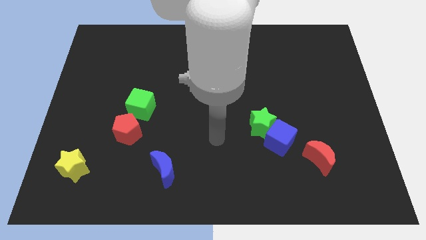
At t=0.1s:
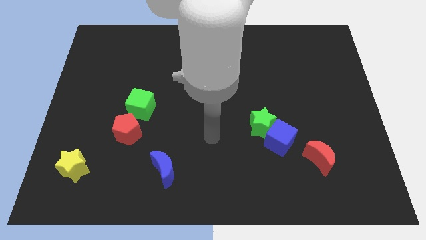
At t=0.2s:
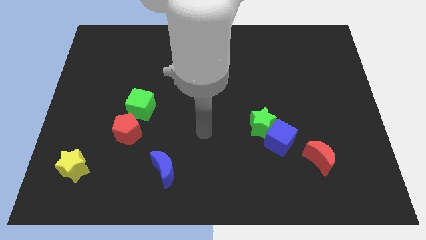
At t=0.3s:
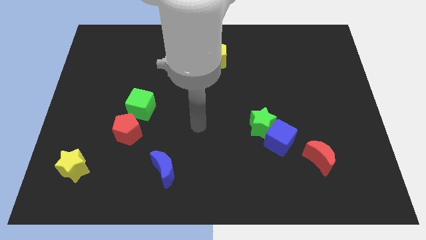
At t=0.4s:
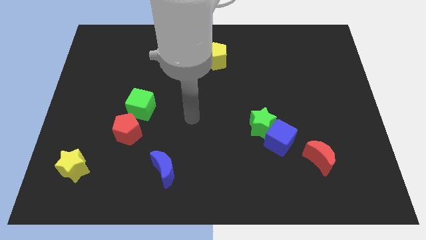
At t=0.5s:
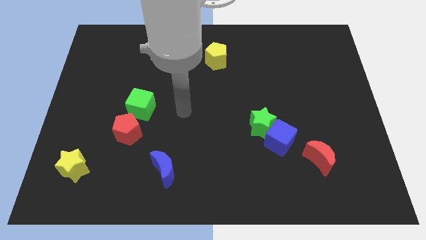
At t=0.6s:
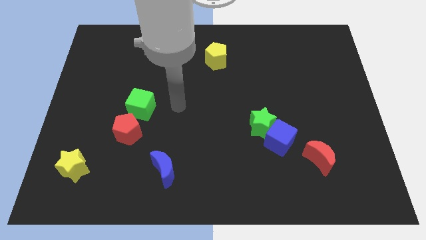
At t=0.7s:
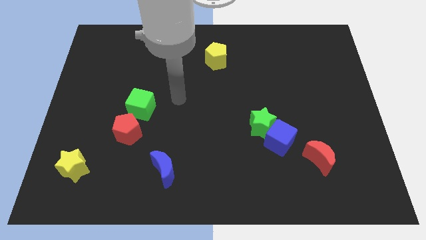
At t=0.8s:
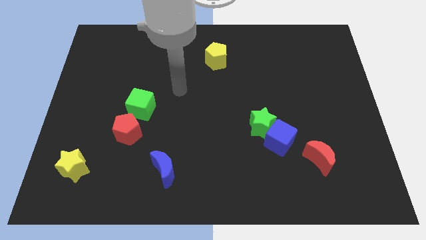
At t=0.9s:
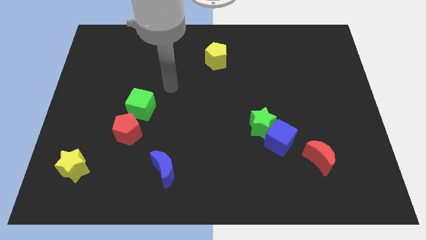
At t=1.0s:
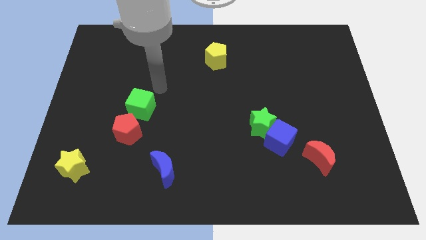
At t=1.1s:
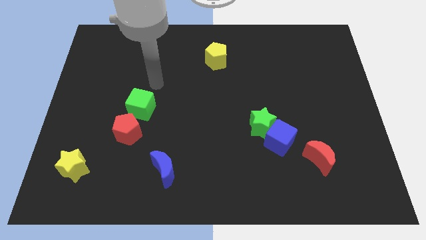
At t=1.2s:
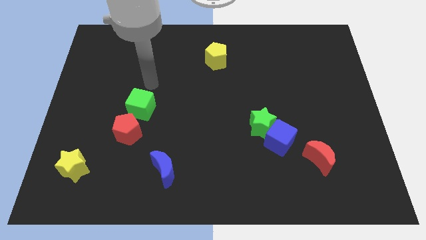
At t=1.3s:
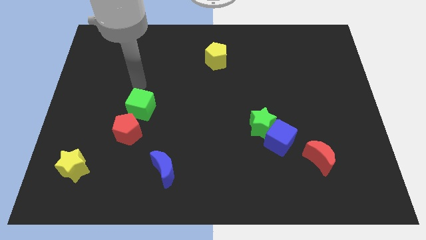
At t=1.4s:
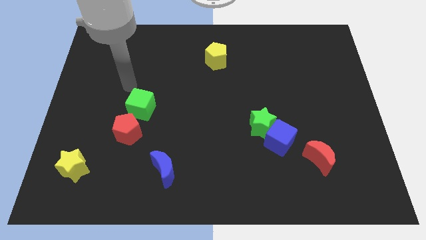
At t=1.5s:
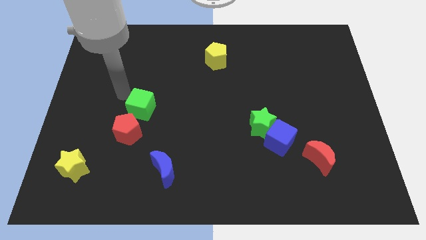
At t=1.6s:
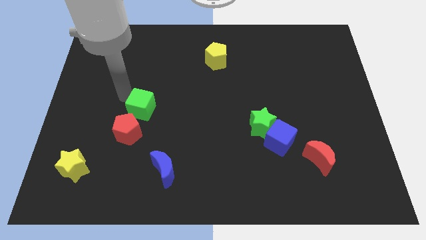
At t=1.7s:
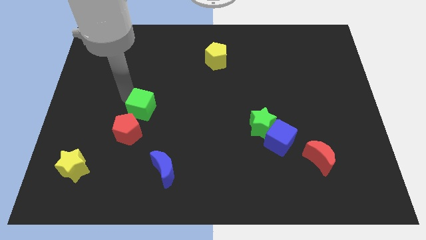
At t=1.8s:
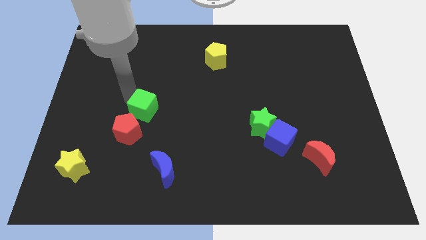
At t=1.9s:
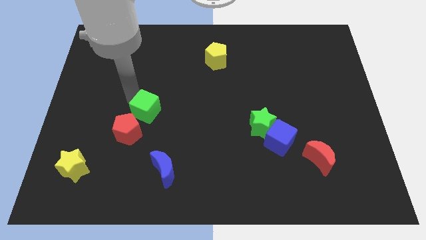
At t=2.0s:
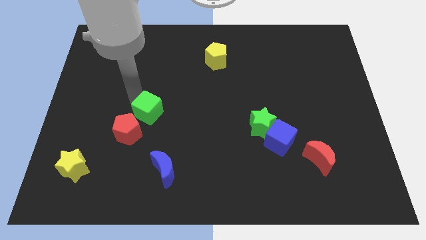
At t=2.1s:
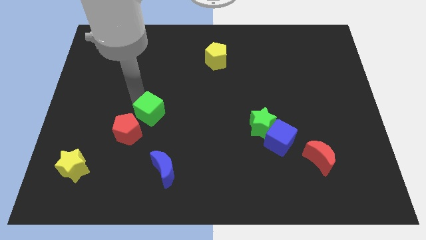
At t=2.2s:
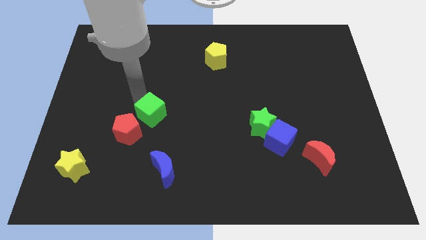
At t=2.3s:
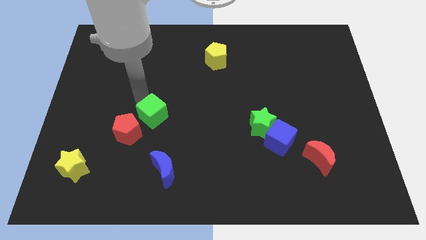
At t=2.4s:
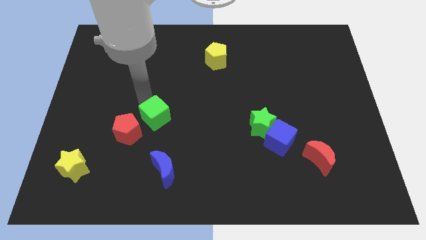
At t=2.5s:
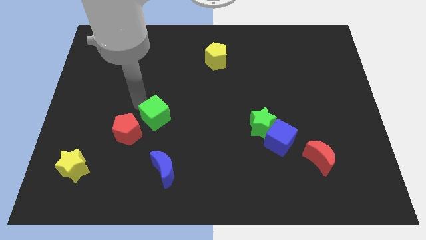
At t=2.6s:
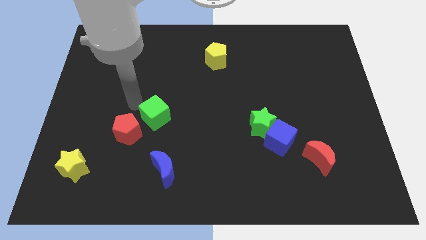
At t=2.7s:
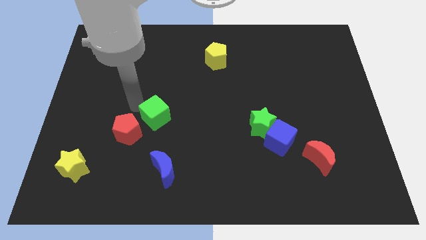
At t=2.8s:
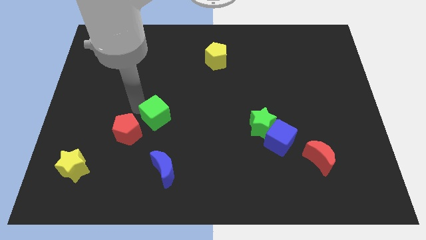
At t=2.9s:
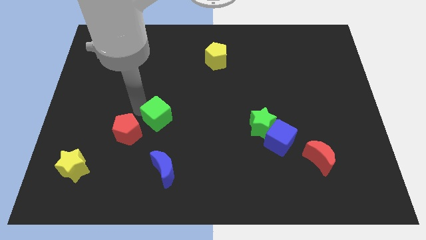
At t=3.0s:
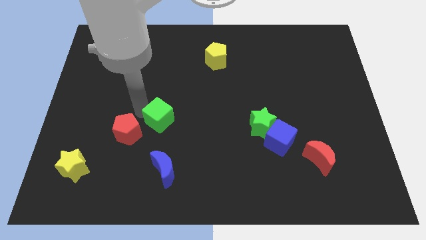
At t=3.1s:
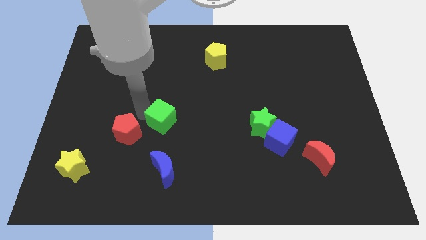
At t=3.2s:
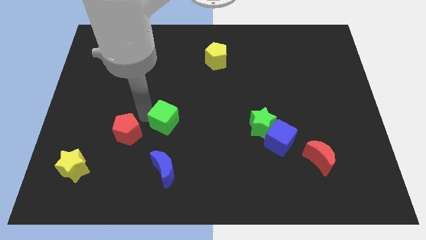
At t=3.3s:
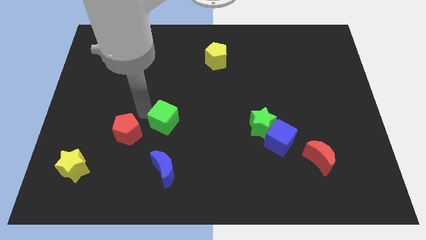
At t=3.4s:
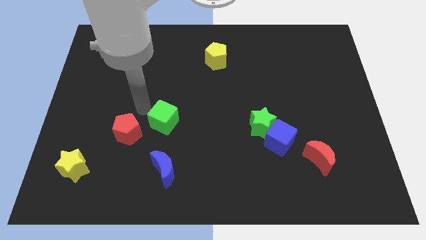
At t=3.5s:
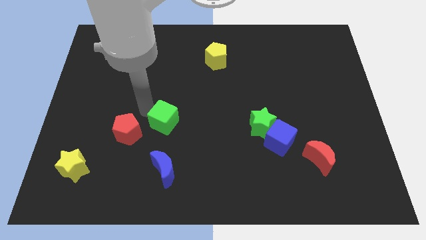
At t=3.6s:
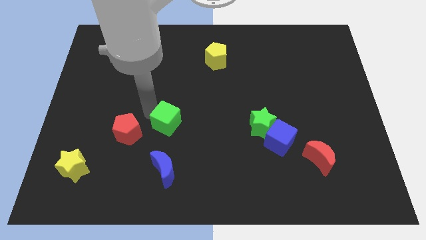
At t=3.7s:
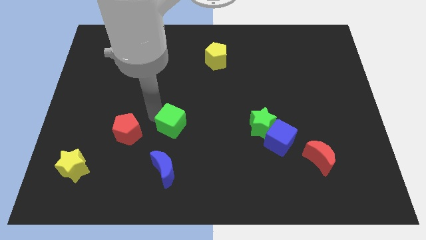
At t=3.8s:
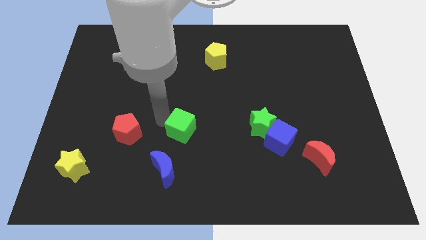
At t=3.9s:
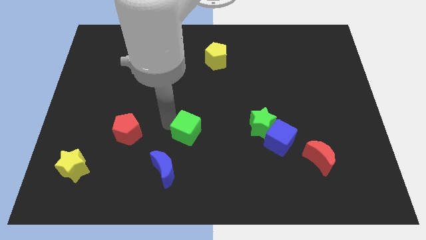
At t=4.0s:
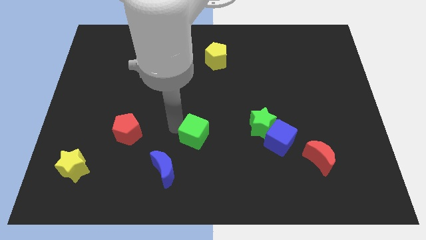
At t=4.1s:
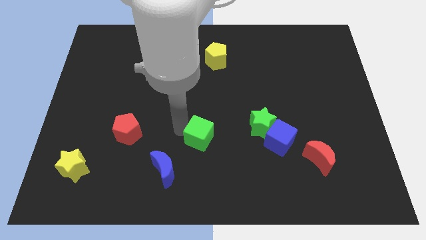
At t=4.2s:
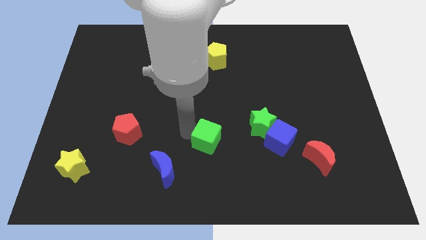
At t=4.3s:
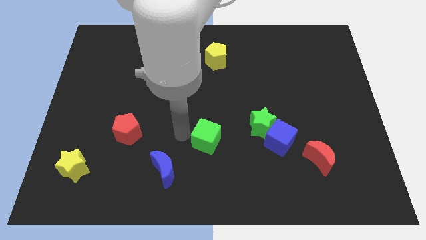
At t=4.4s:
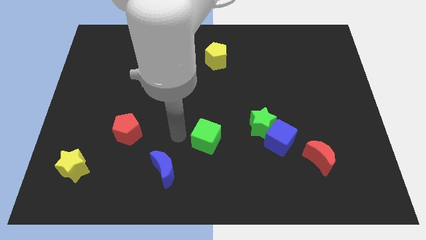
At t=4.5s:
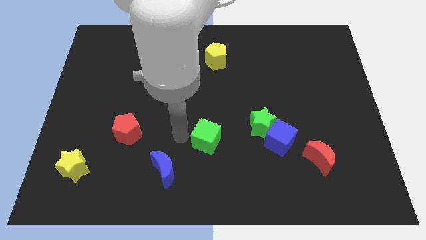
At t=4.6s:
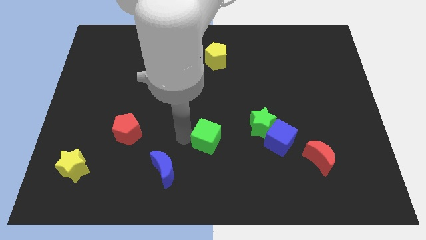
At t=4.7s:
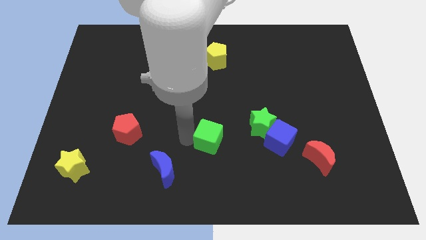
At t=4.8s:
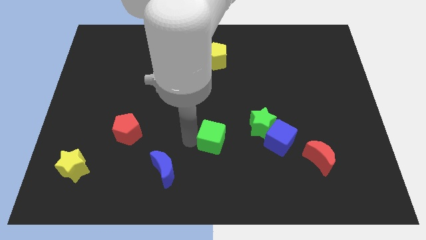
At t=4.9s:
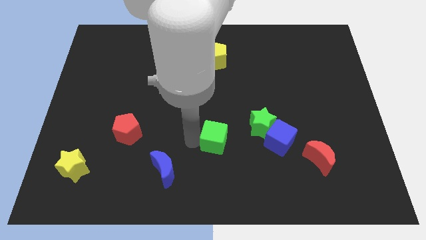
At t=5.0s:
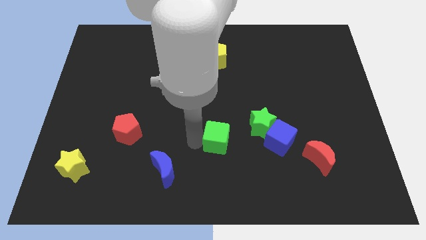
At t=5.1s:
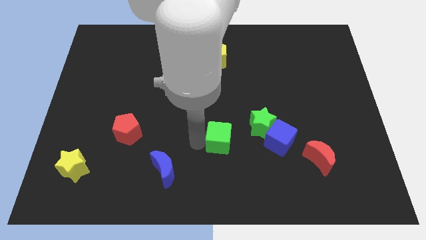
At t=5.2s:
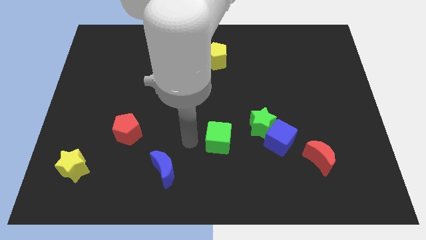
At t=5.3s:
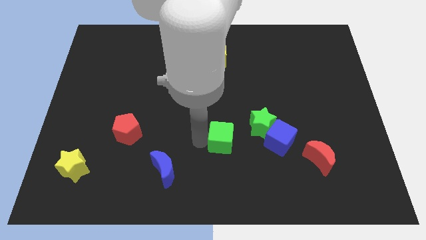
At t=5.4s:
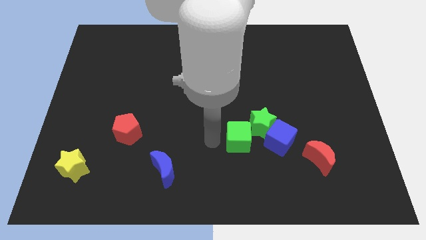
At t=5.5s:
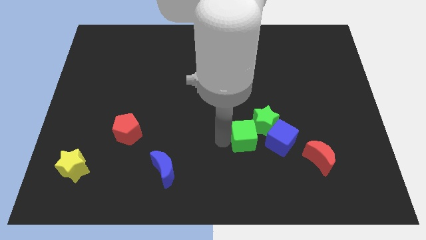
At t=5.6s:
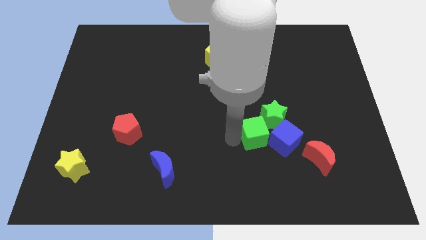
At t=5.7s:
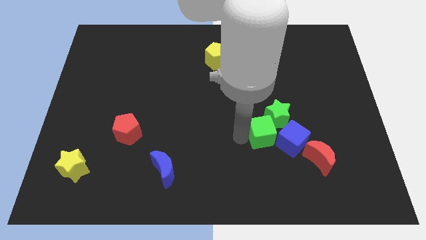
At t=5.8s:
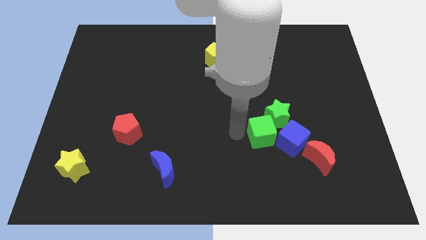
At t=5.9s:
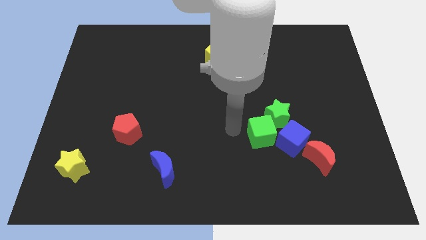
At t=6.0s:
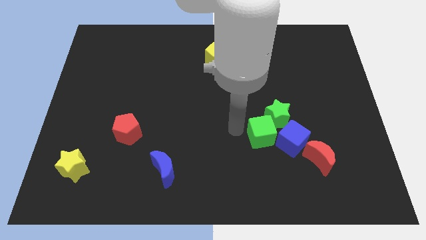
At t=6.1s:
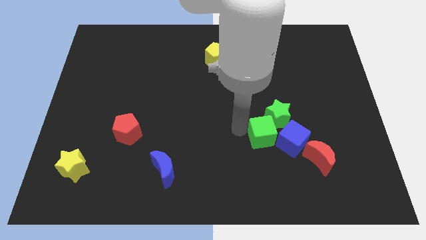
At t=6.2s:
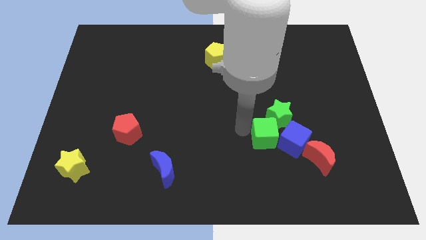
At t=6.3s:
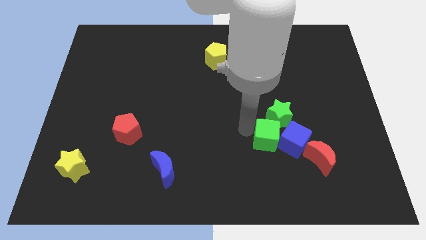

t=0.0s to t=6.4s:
push the green cube towards the blue cube
